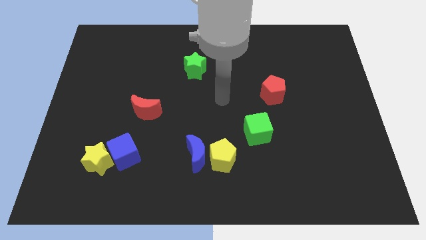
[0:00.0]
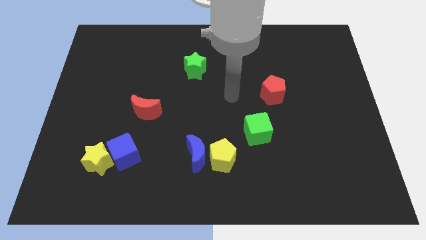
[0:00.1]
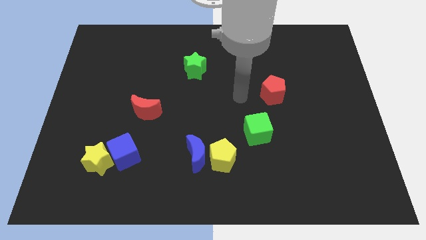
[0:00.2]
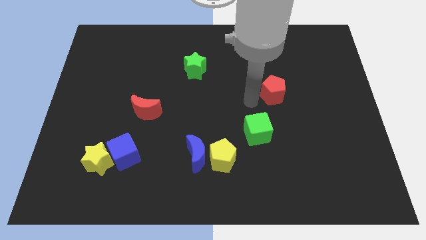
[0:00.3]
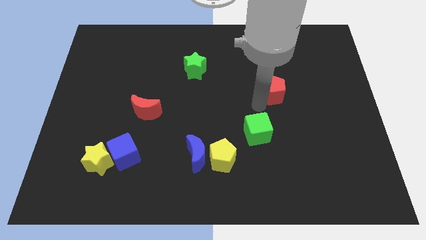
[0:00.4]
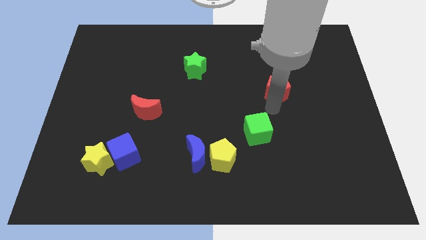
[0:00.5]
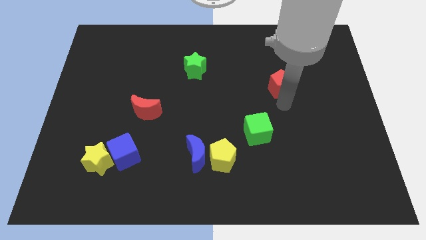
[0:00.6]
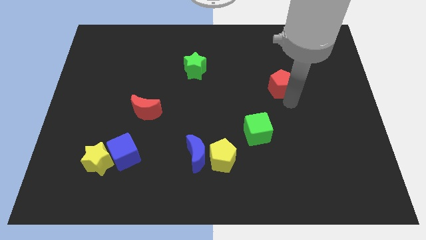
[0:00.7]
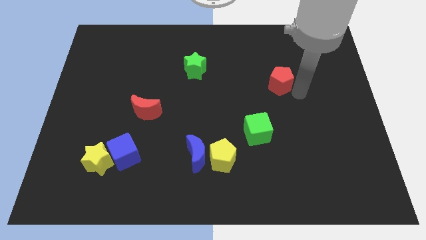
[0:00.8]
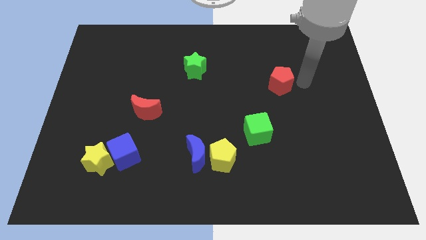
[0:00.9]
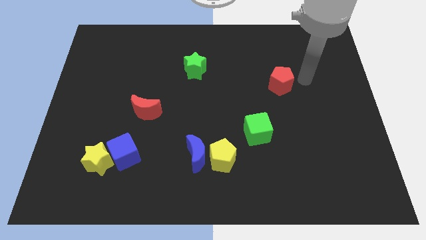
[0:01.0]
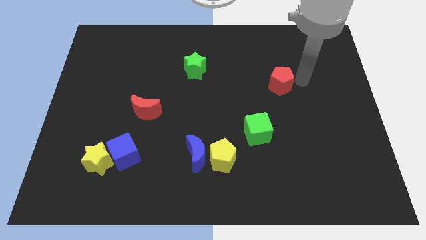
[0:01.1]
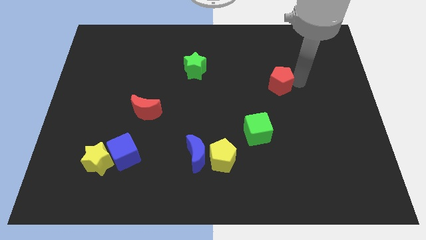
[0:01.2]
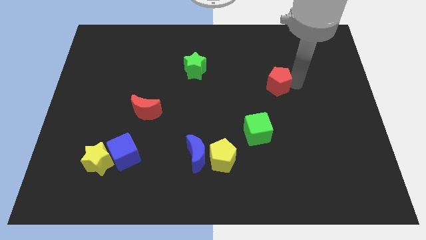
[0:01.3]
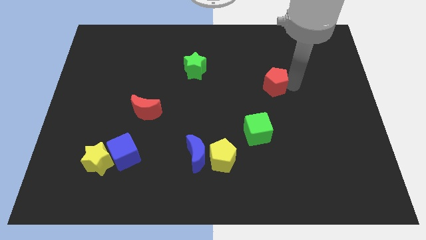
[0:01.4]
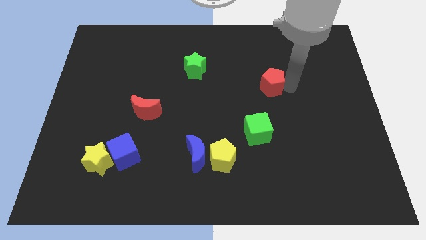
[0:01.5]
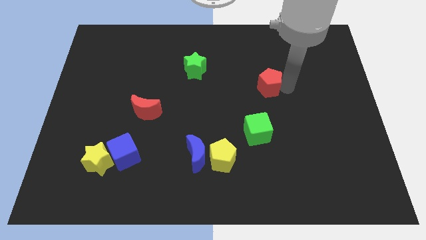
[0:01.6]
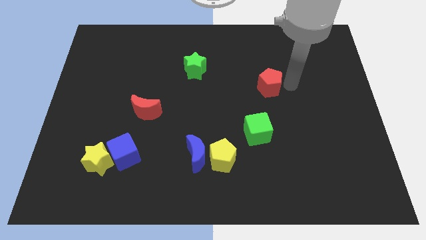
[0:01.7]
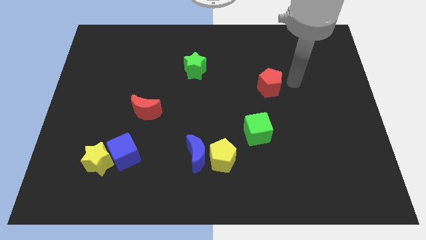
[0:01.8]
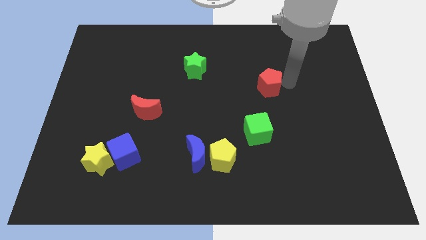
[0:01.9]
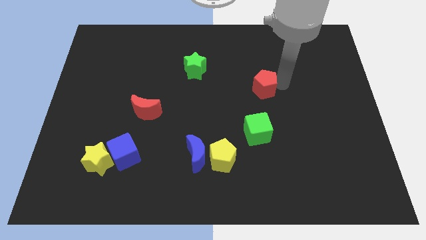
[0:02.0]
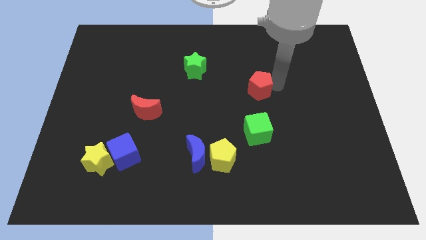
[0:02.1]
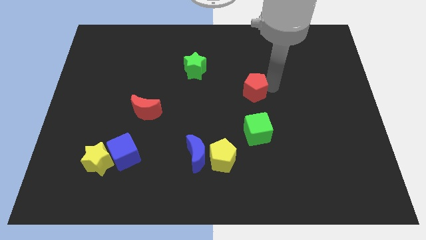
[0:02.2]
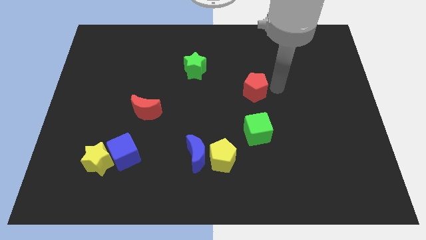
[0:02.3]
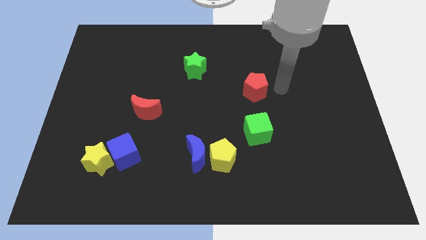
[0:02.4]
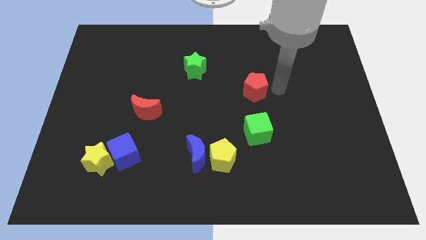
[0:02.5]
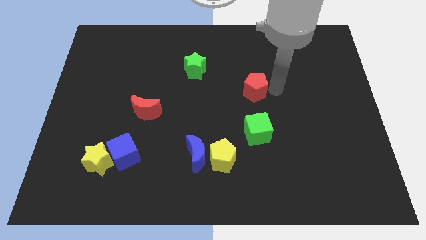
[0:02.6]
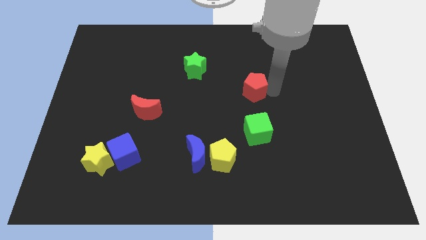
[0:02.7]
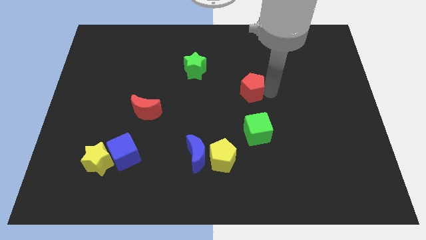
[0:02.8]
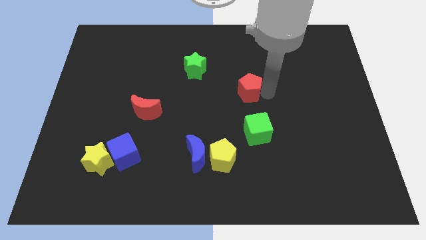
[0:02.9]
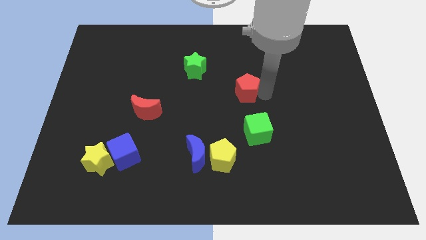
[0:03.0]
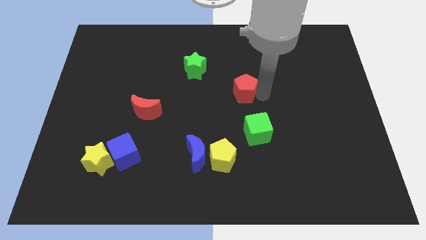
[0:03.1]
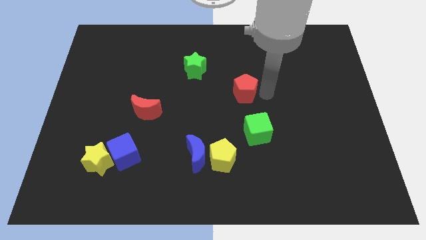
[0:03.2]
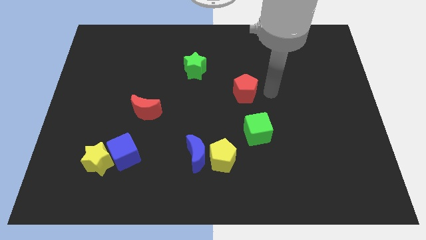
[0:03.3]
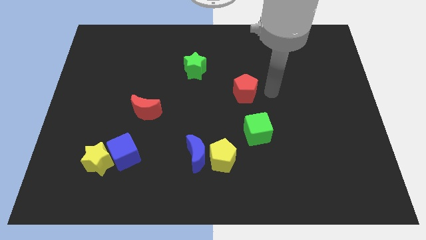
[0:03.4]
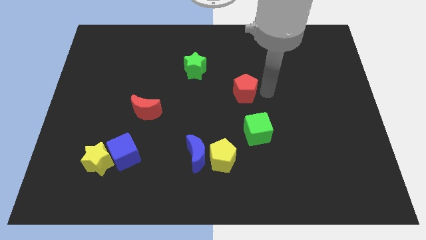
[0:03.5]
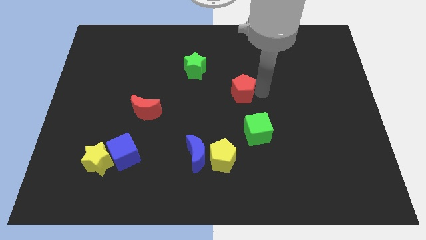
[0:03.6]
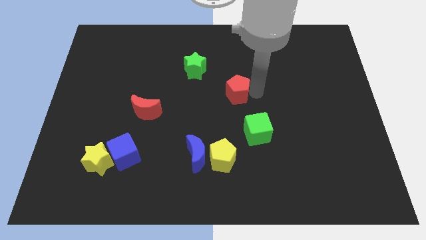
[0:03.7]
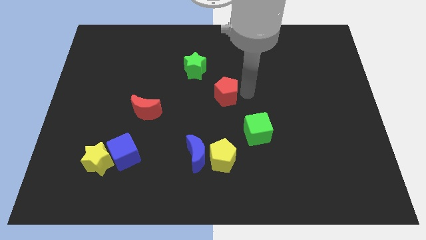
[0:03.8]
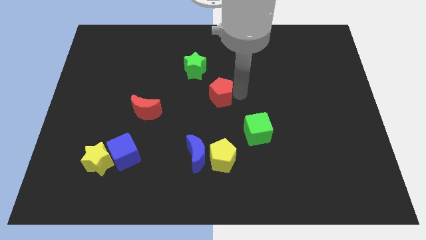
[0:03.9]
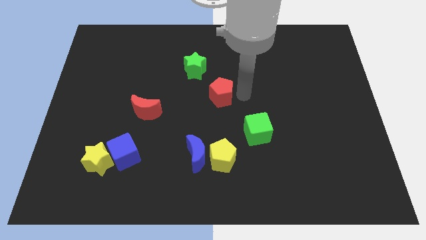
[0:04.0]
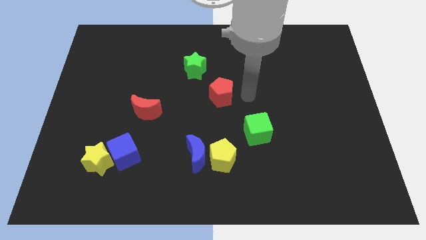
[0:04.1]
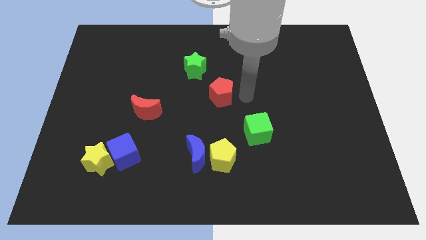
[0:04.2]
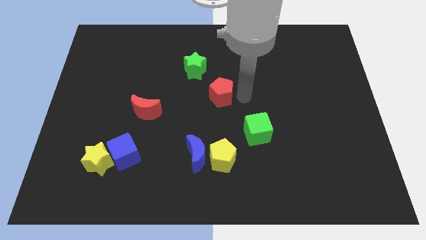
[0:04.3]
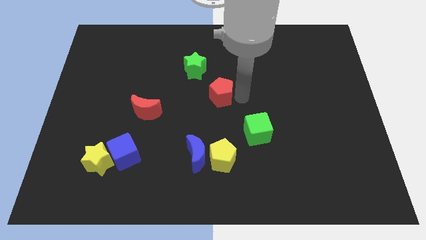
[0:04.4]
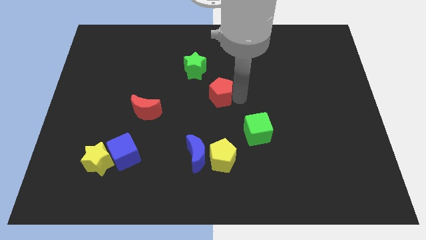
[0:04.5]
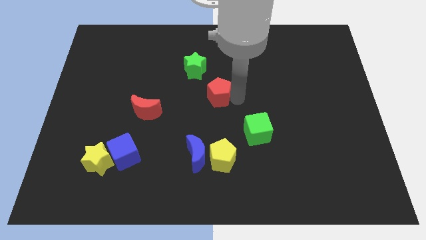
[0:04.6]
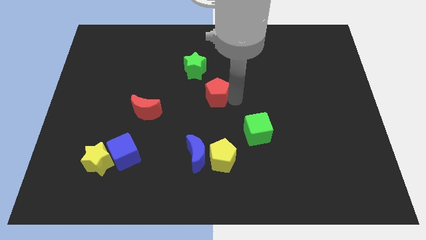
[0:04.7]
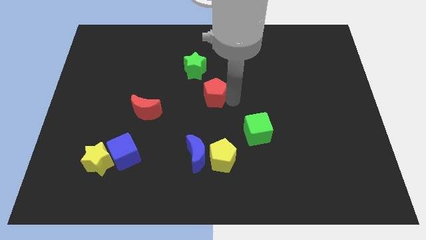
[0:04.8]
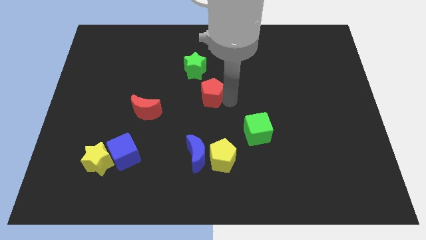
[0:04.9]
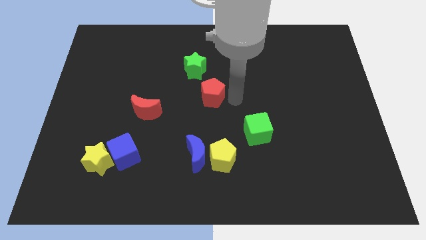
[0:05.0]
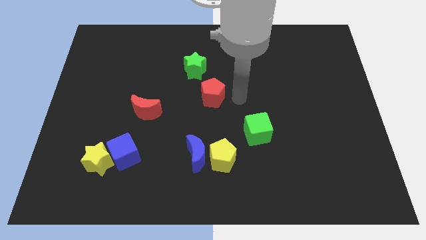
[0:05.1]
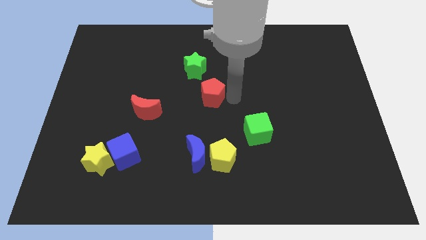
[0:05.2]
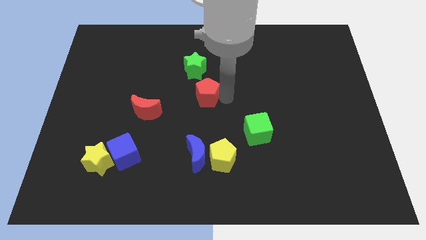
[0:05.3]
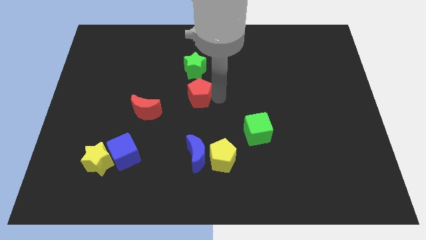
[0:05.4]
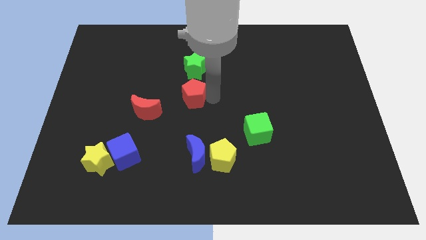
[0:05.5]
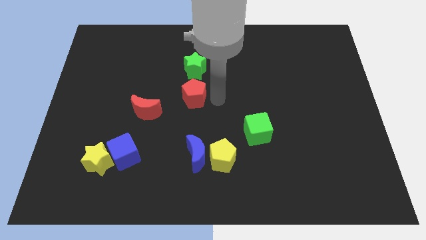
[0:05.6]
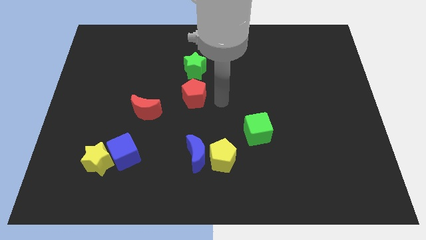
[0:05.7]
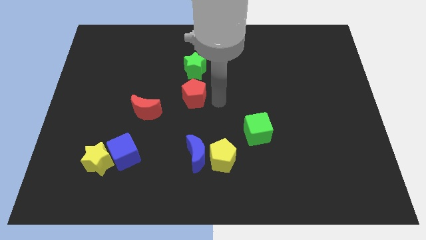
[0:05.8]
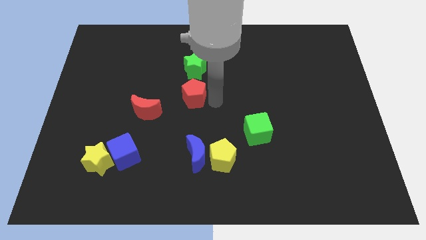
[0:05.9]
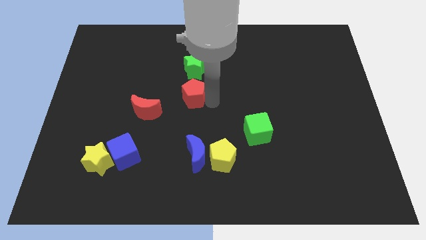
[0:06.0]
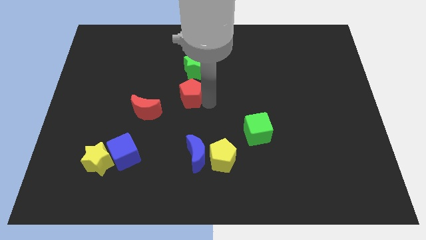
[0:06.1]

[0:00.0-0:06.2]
push the red pentagon diagonally up and to the right of the red moon
